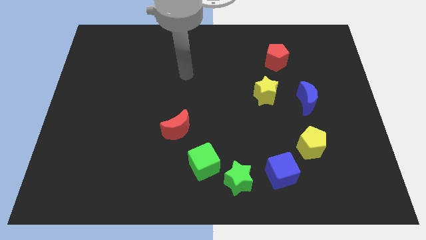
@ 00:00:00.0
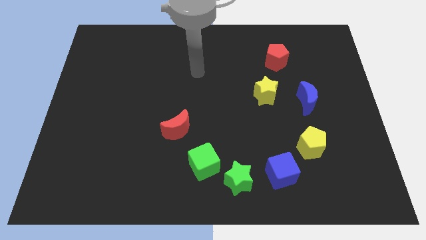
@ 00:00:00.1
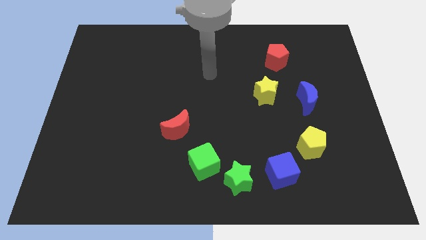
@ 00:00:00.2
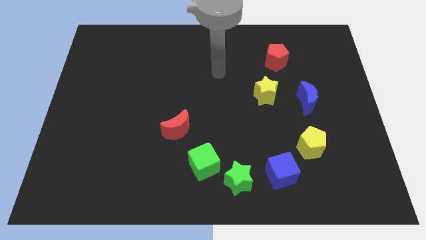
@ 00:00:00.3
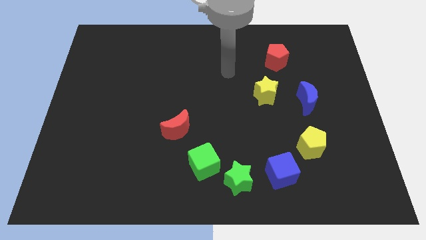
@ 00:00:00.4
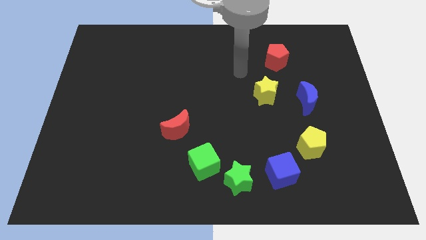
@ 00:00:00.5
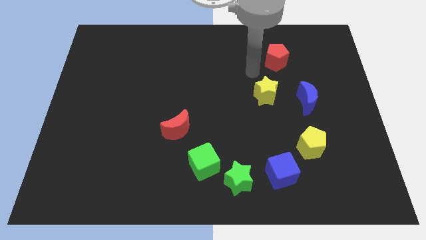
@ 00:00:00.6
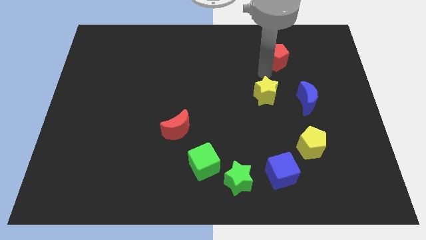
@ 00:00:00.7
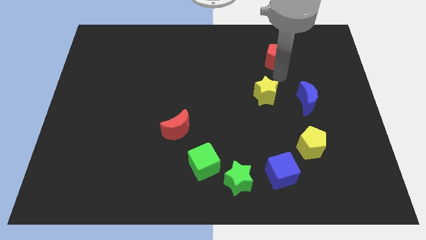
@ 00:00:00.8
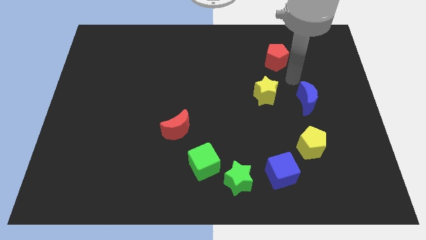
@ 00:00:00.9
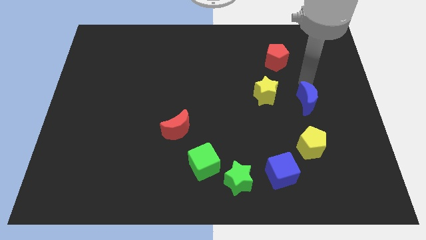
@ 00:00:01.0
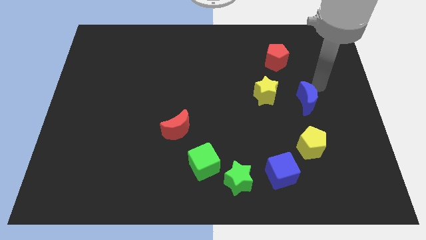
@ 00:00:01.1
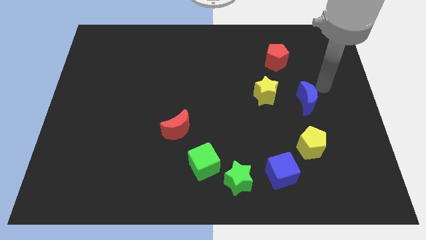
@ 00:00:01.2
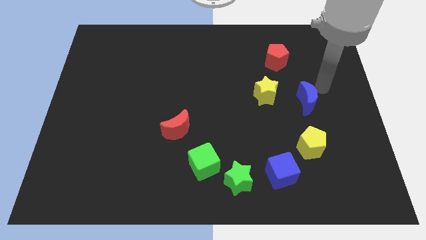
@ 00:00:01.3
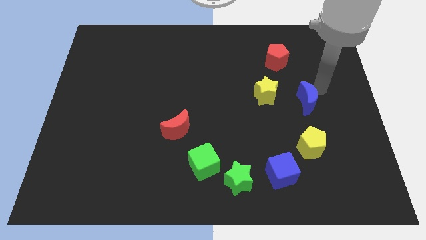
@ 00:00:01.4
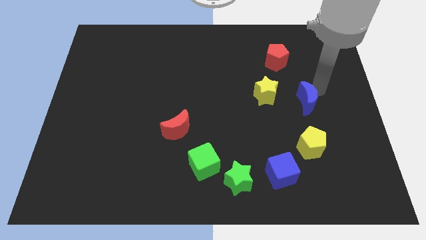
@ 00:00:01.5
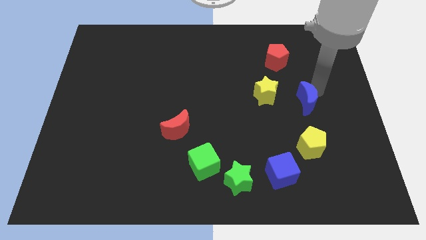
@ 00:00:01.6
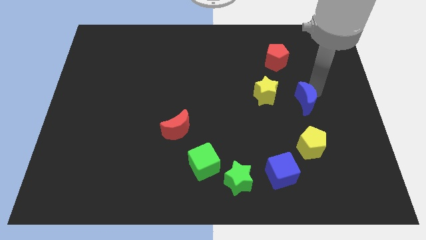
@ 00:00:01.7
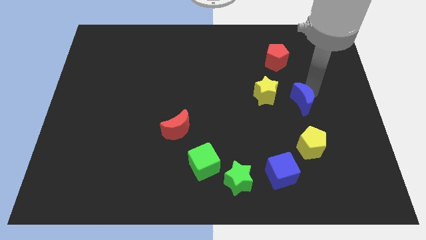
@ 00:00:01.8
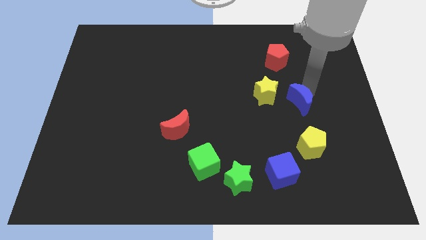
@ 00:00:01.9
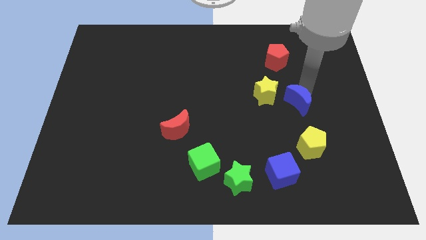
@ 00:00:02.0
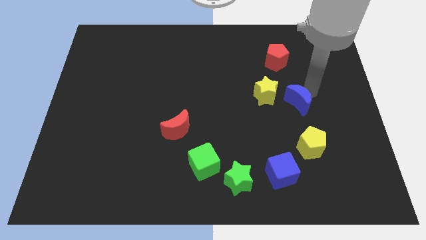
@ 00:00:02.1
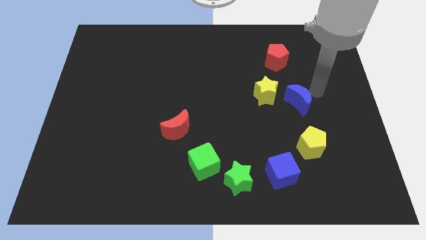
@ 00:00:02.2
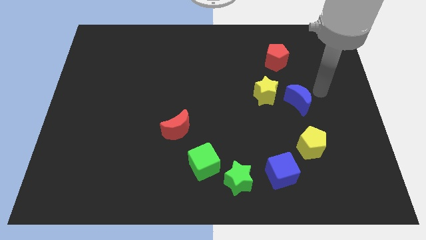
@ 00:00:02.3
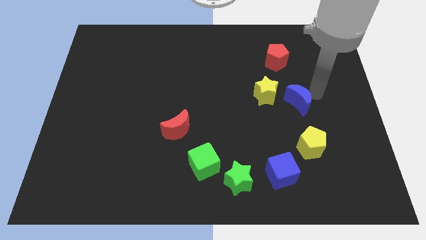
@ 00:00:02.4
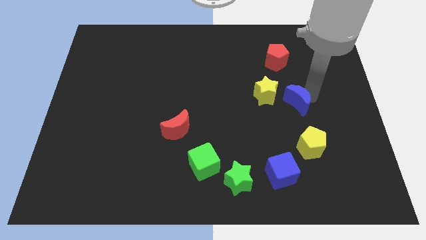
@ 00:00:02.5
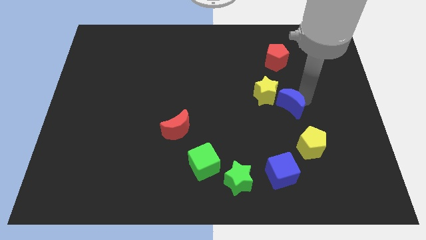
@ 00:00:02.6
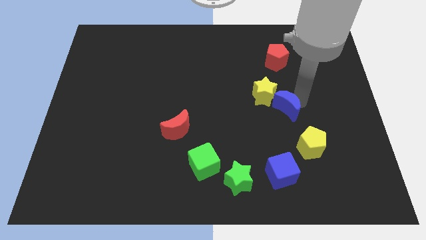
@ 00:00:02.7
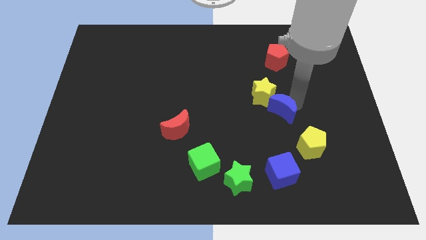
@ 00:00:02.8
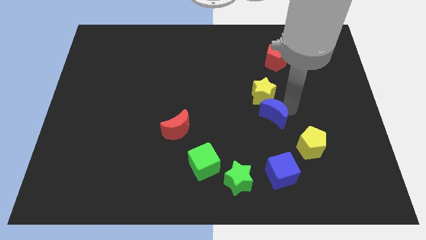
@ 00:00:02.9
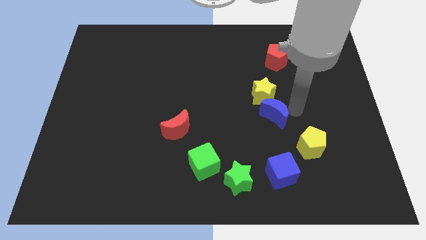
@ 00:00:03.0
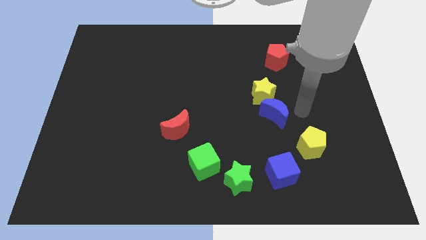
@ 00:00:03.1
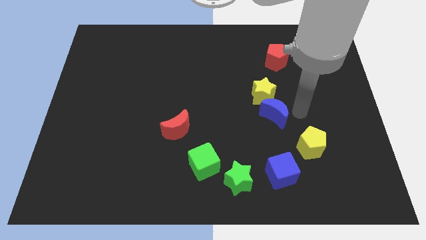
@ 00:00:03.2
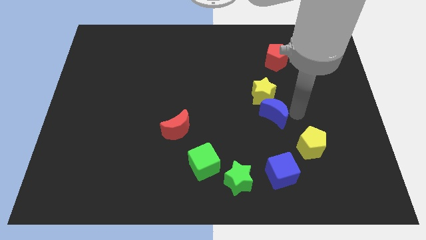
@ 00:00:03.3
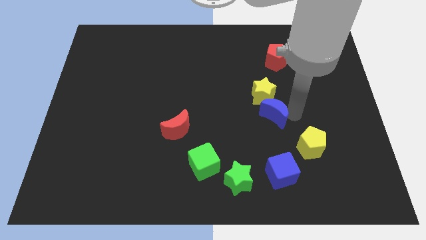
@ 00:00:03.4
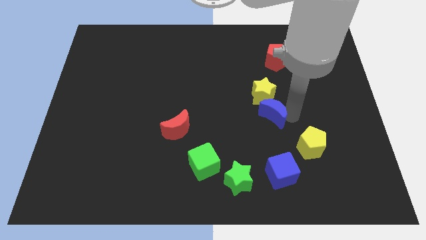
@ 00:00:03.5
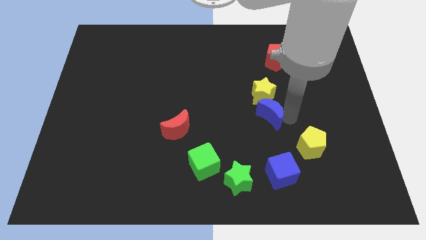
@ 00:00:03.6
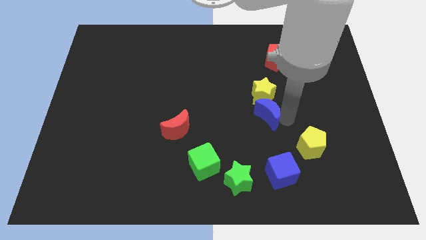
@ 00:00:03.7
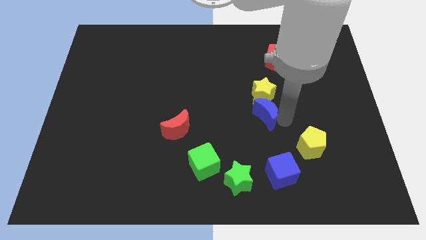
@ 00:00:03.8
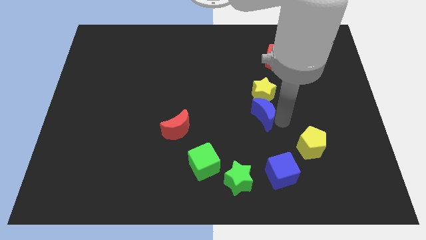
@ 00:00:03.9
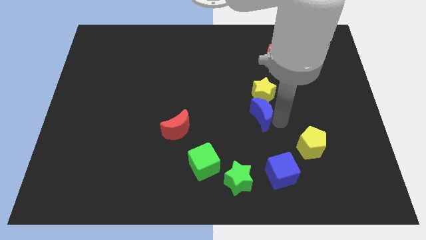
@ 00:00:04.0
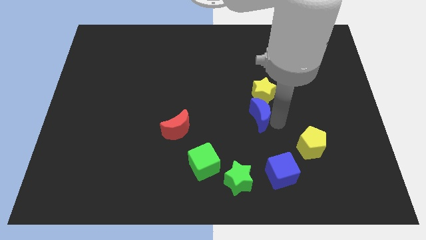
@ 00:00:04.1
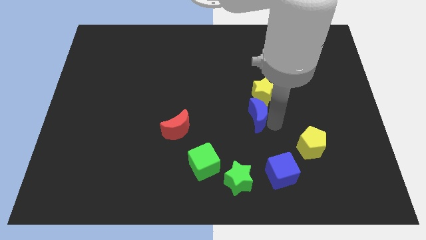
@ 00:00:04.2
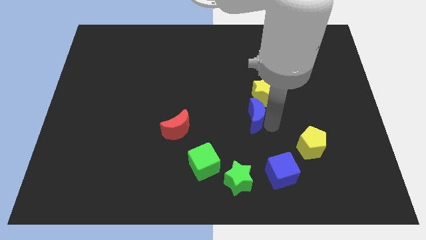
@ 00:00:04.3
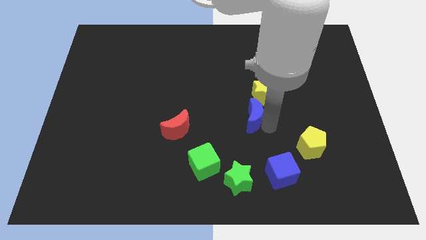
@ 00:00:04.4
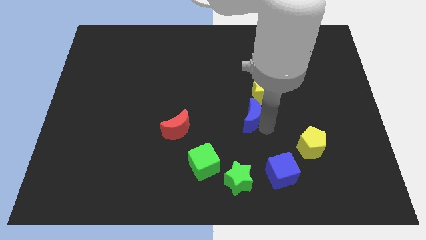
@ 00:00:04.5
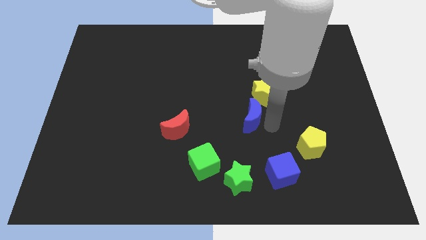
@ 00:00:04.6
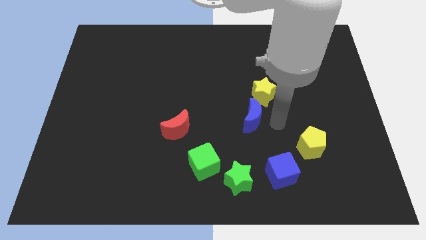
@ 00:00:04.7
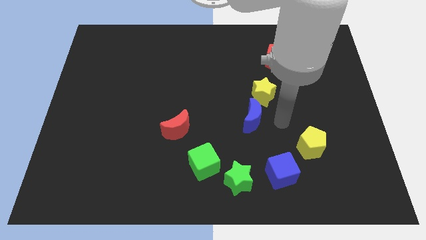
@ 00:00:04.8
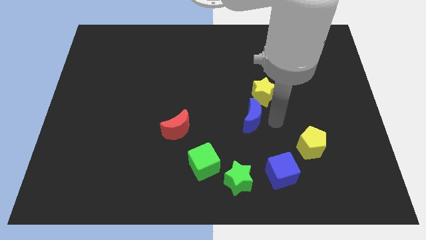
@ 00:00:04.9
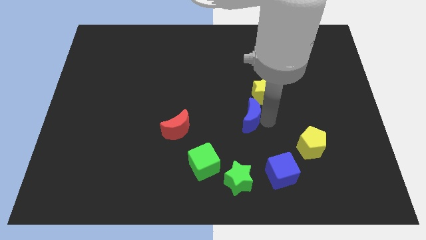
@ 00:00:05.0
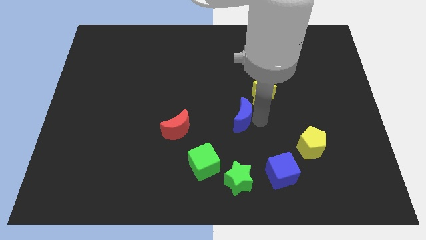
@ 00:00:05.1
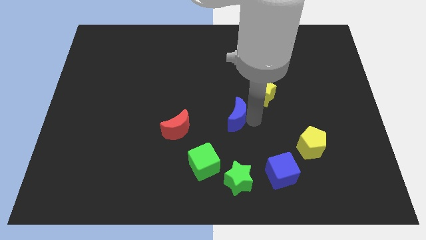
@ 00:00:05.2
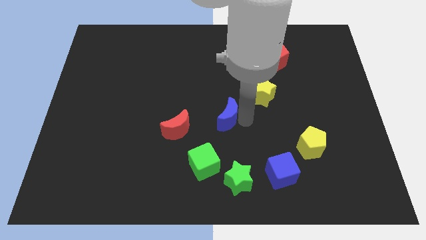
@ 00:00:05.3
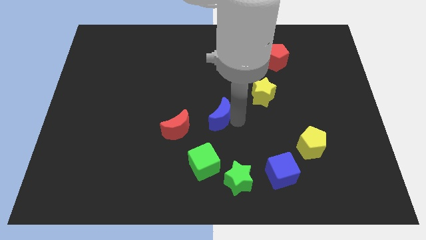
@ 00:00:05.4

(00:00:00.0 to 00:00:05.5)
push the blue moon diagonally up and to the right of the red moon

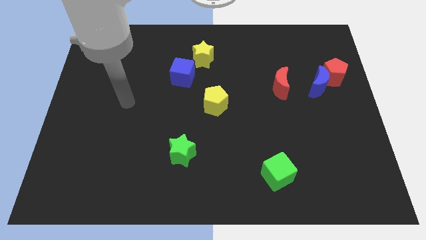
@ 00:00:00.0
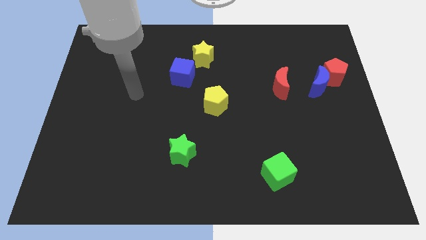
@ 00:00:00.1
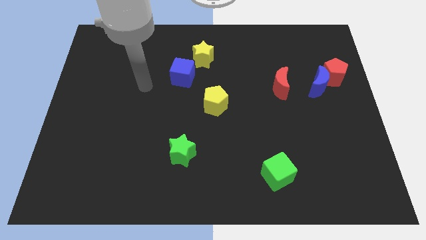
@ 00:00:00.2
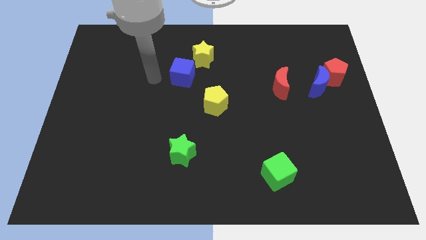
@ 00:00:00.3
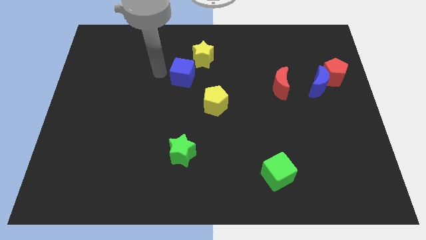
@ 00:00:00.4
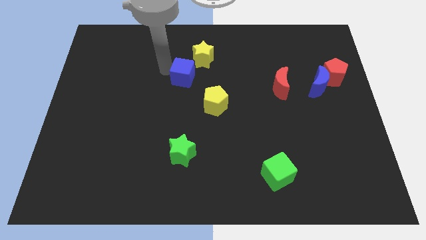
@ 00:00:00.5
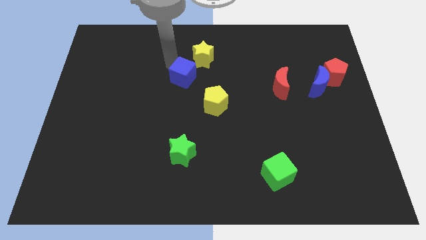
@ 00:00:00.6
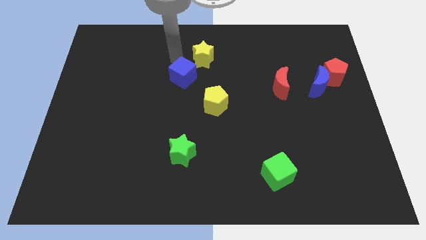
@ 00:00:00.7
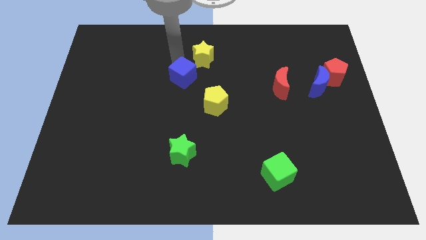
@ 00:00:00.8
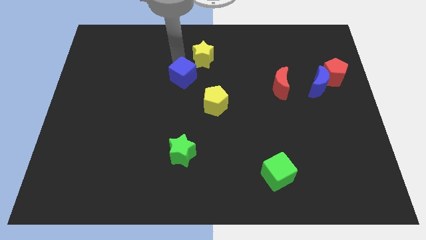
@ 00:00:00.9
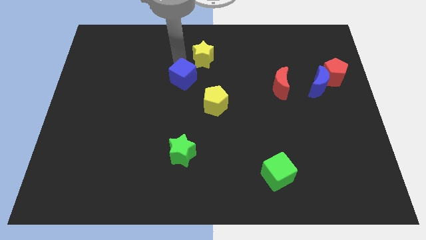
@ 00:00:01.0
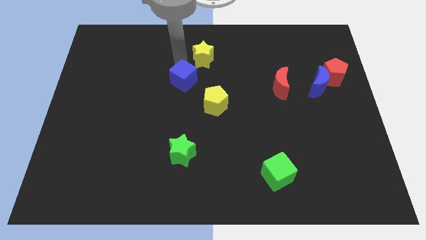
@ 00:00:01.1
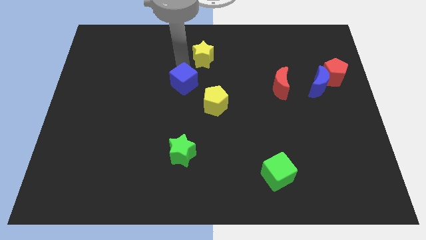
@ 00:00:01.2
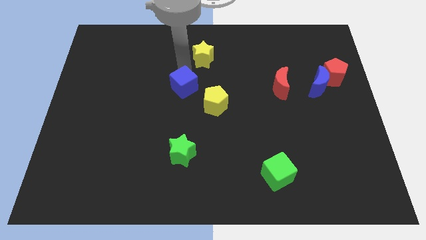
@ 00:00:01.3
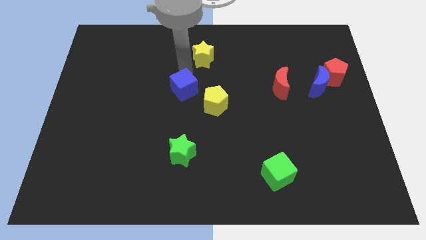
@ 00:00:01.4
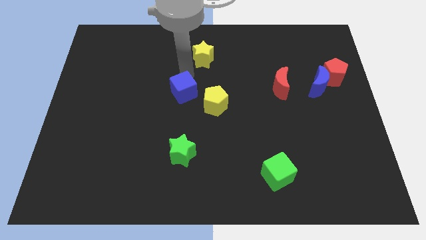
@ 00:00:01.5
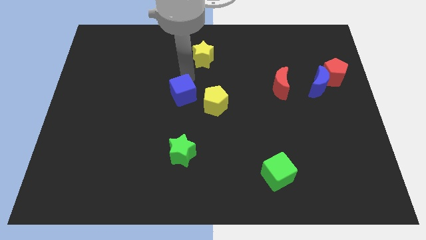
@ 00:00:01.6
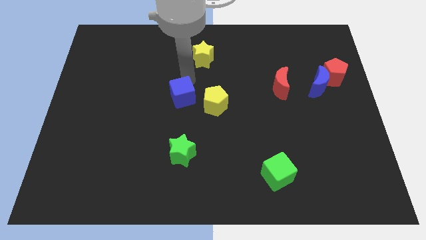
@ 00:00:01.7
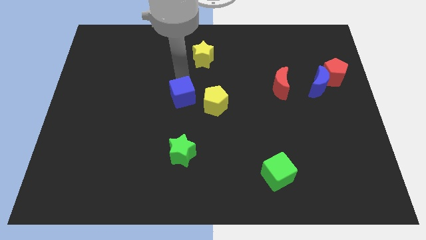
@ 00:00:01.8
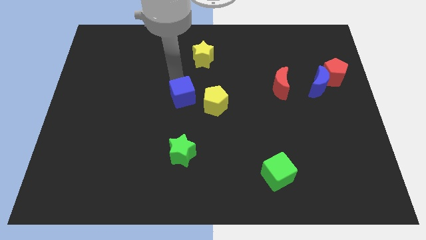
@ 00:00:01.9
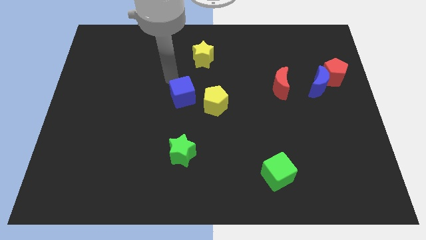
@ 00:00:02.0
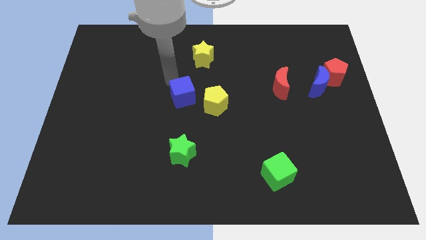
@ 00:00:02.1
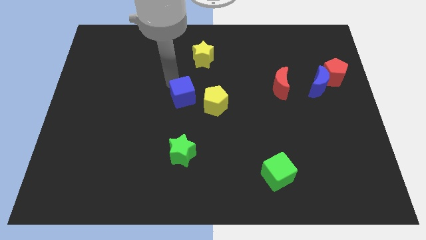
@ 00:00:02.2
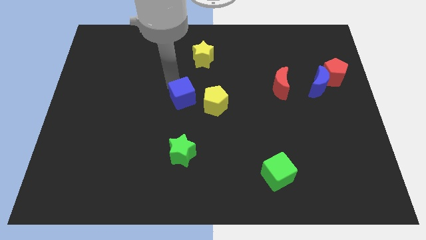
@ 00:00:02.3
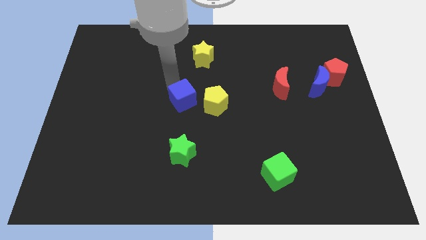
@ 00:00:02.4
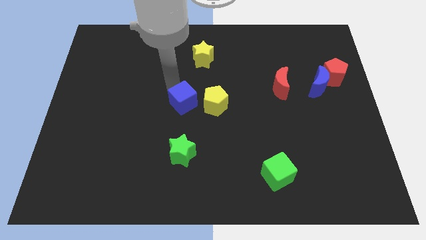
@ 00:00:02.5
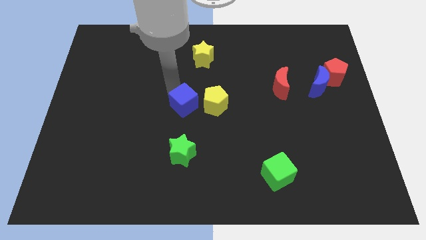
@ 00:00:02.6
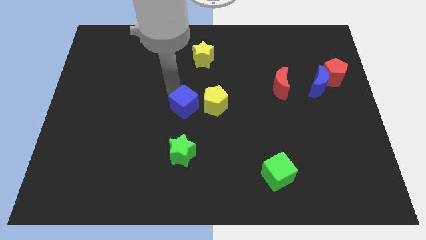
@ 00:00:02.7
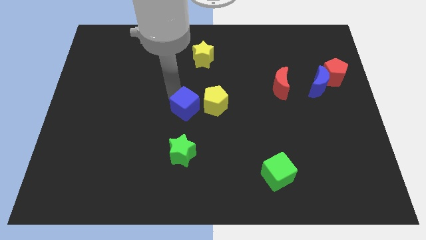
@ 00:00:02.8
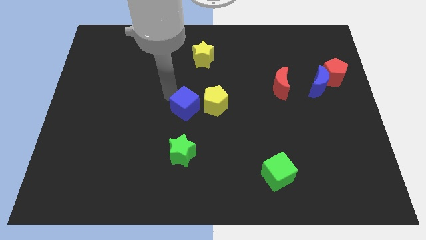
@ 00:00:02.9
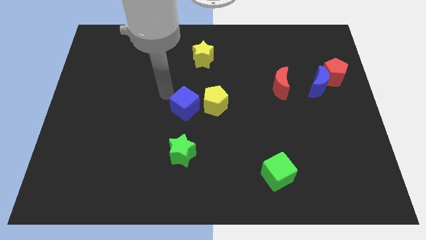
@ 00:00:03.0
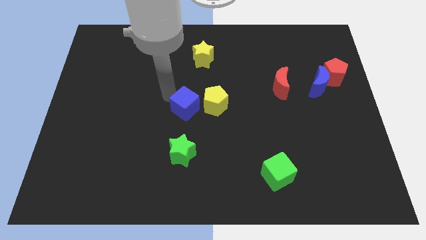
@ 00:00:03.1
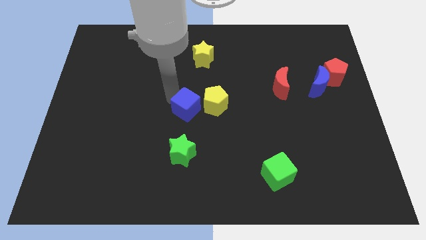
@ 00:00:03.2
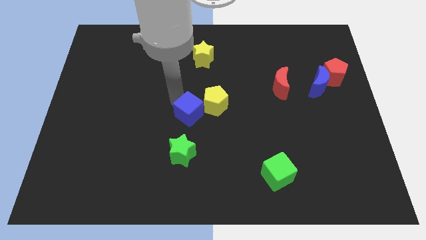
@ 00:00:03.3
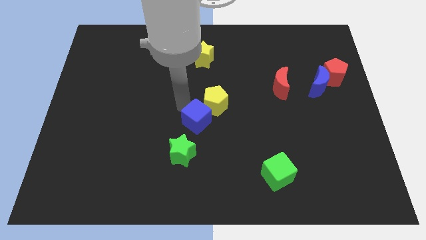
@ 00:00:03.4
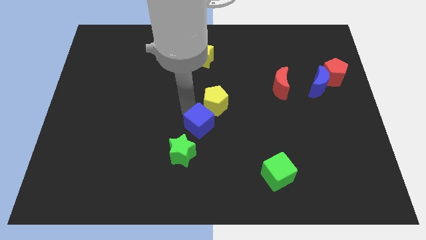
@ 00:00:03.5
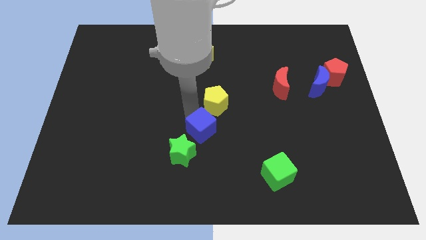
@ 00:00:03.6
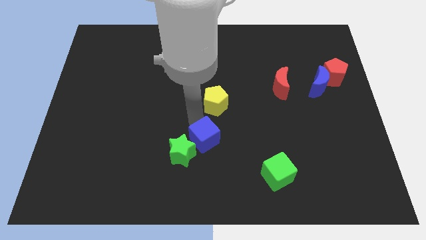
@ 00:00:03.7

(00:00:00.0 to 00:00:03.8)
move the blue cube just right of the green star
